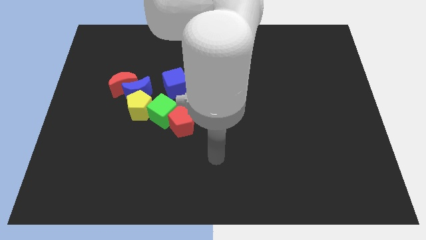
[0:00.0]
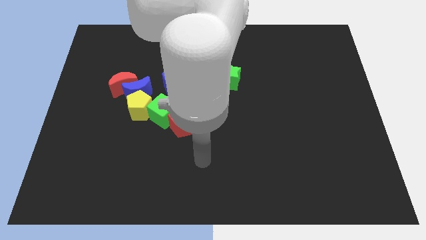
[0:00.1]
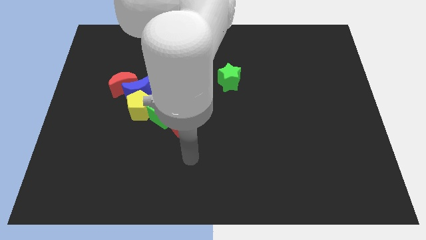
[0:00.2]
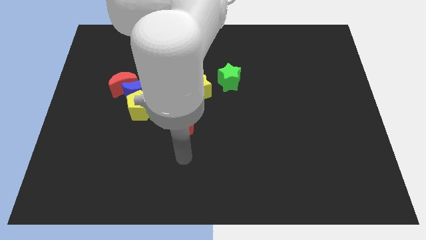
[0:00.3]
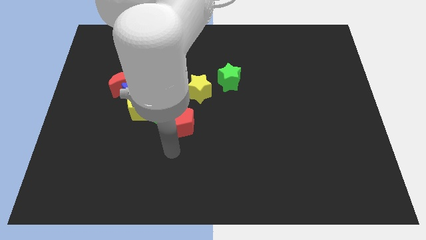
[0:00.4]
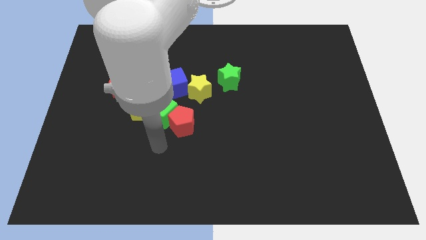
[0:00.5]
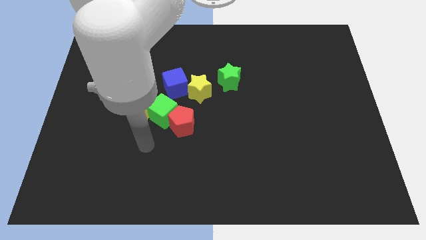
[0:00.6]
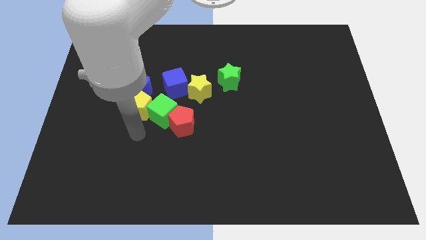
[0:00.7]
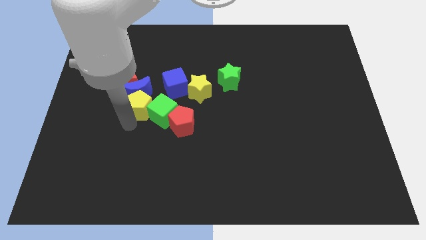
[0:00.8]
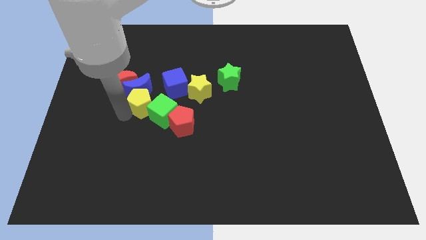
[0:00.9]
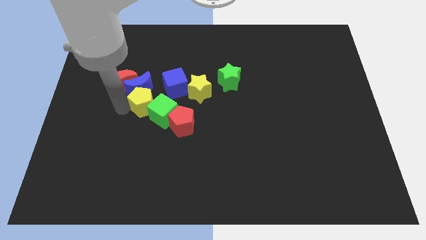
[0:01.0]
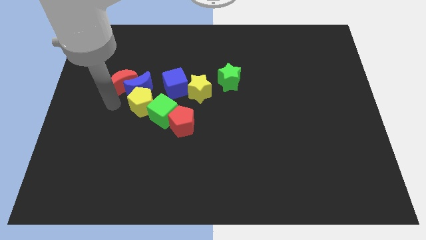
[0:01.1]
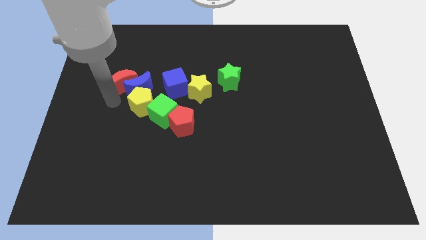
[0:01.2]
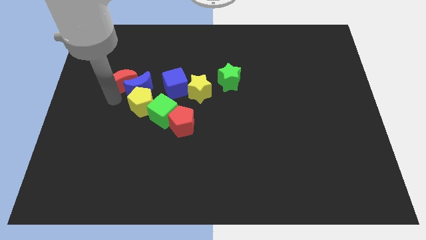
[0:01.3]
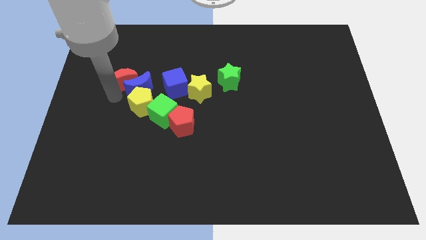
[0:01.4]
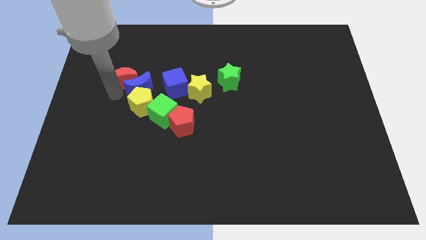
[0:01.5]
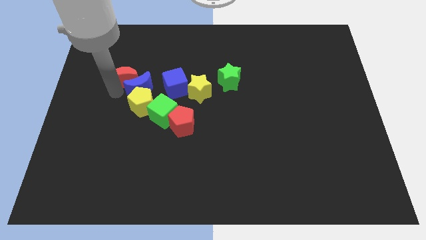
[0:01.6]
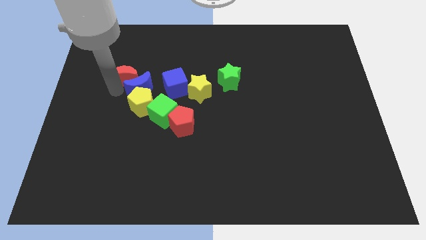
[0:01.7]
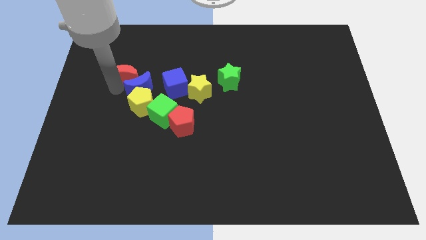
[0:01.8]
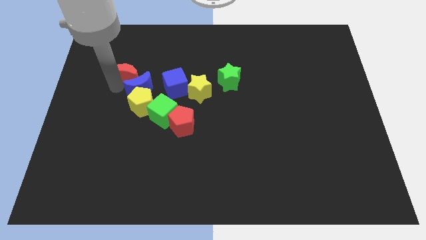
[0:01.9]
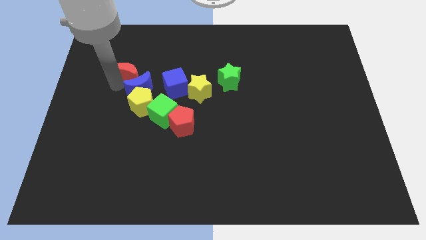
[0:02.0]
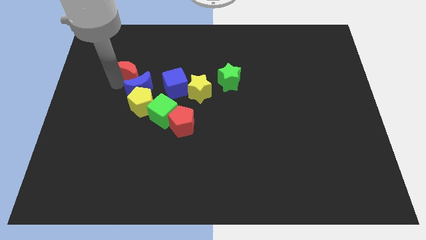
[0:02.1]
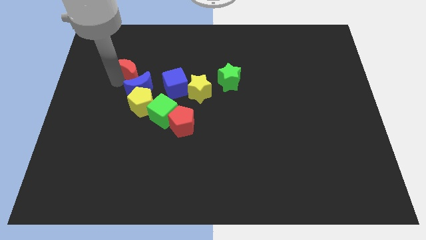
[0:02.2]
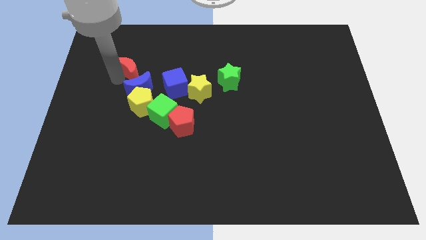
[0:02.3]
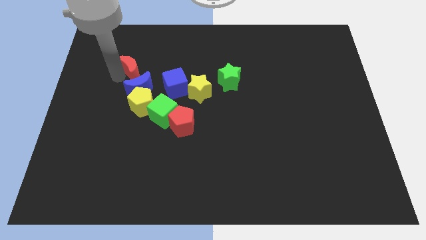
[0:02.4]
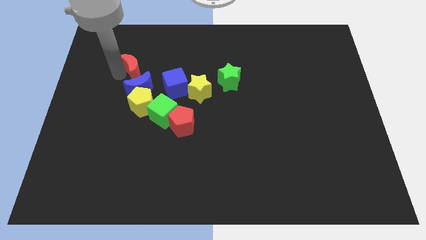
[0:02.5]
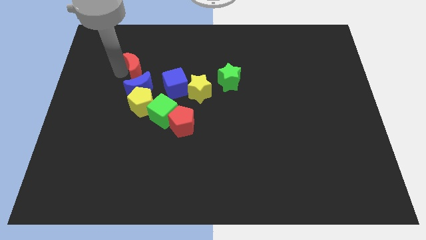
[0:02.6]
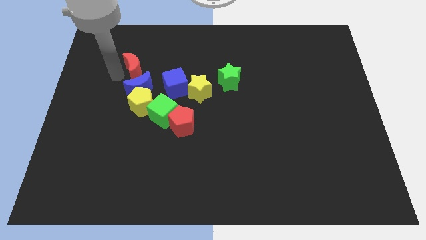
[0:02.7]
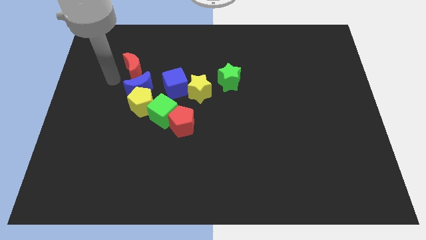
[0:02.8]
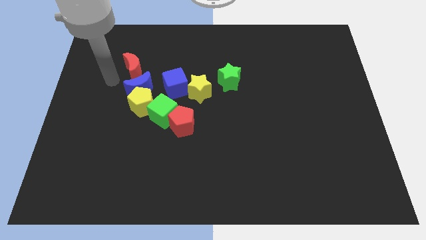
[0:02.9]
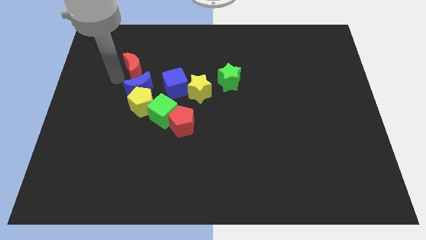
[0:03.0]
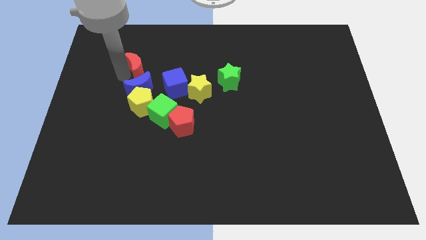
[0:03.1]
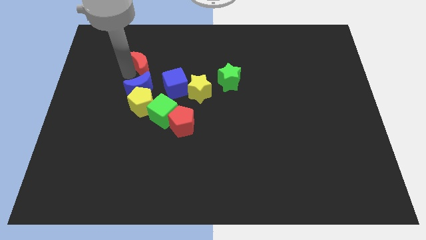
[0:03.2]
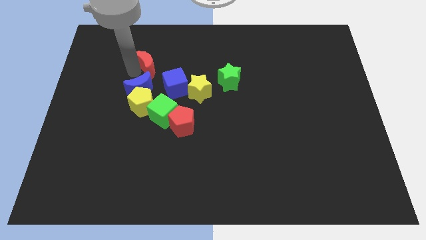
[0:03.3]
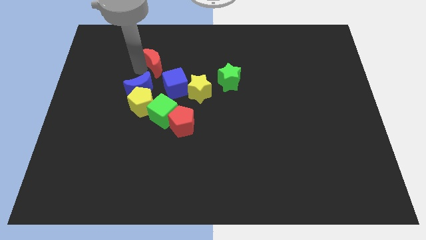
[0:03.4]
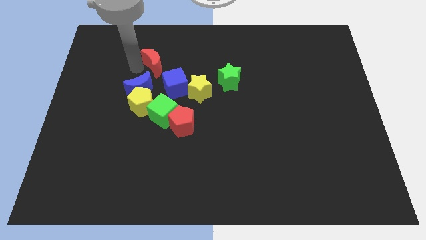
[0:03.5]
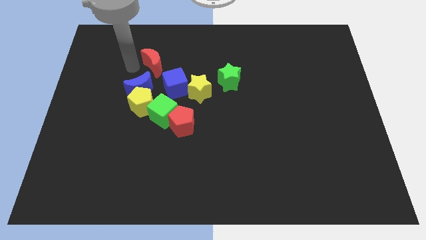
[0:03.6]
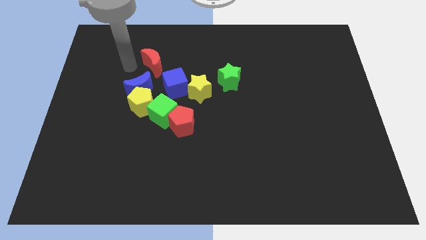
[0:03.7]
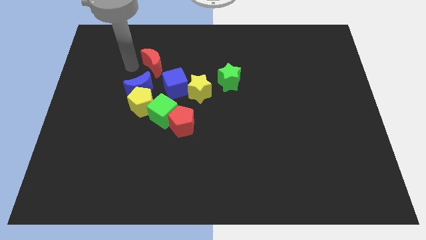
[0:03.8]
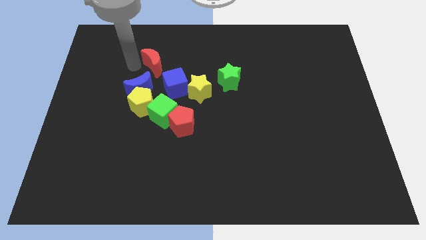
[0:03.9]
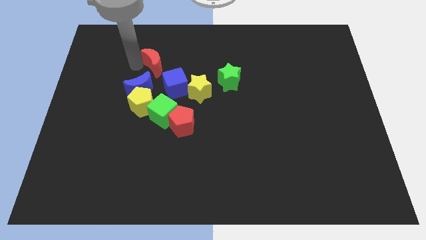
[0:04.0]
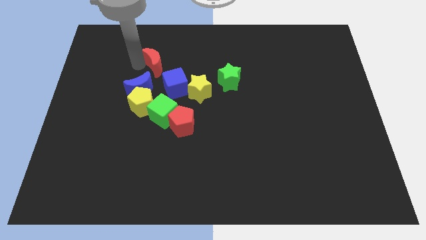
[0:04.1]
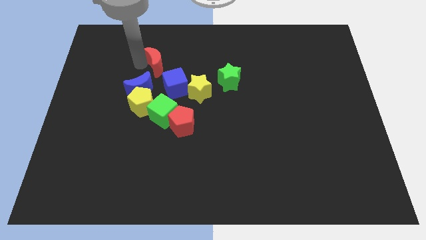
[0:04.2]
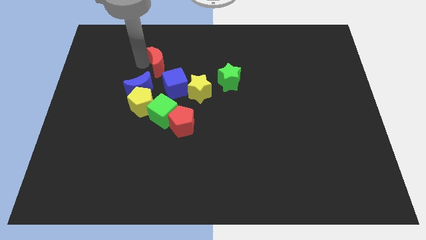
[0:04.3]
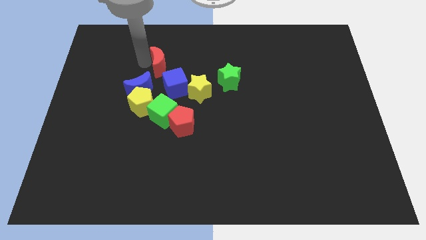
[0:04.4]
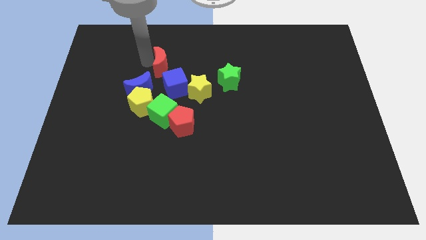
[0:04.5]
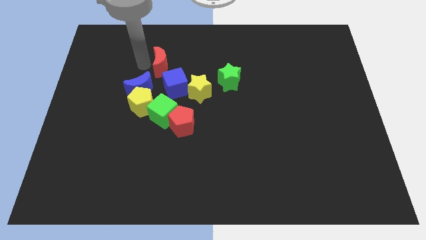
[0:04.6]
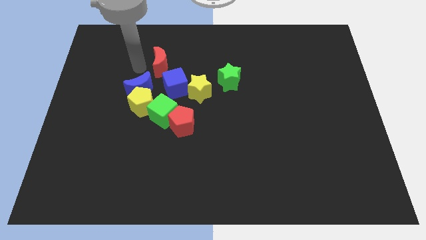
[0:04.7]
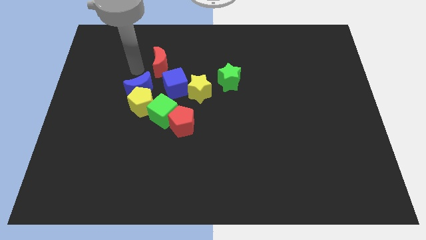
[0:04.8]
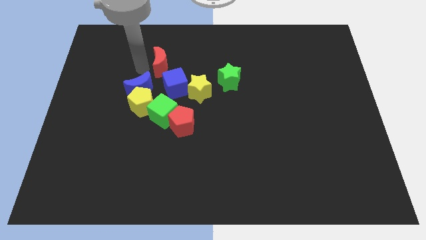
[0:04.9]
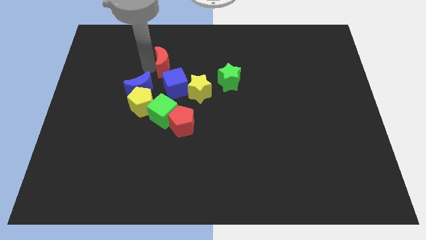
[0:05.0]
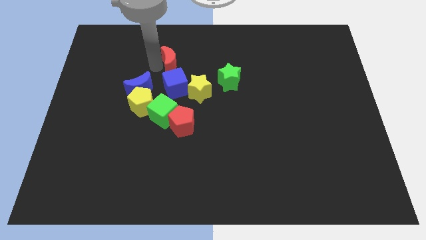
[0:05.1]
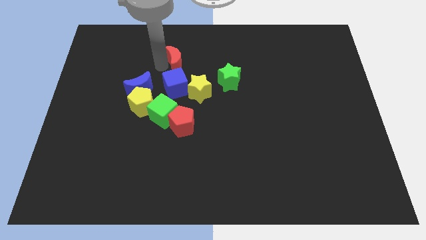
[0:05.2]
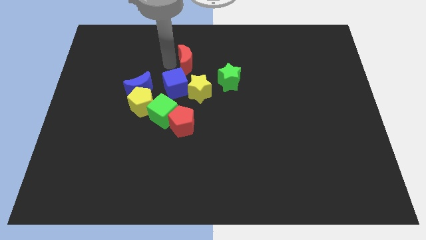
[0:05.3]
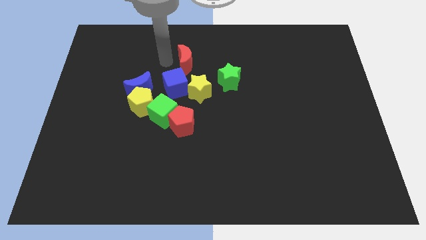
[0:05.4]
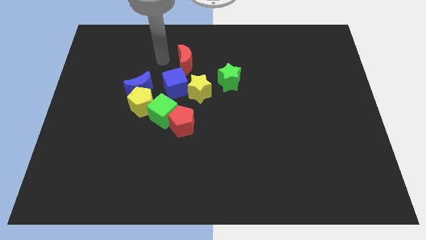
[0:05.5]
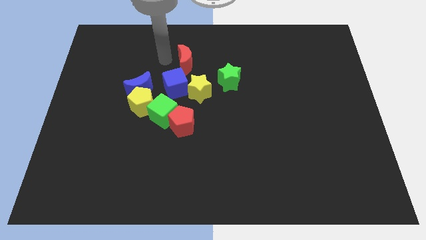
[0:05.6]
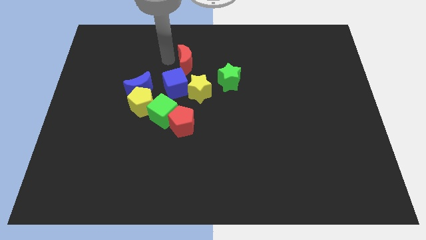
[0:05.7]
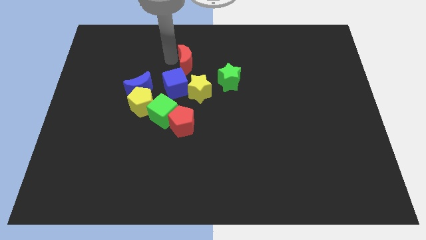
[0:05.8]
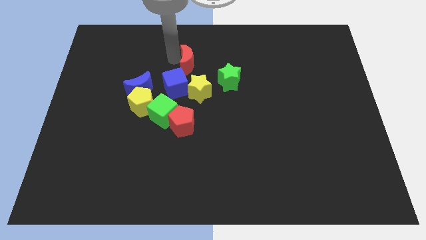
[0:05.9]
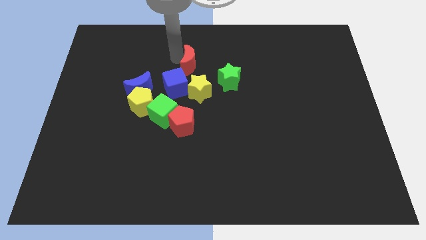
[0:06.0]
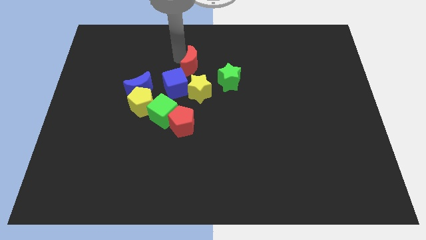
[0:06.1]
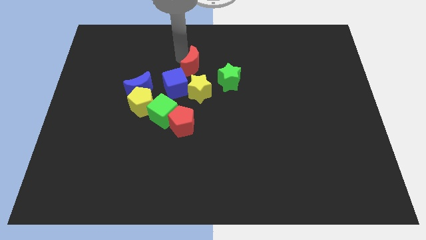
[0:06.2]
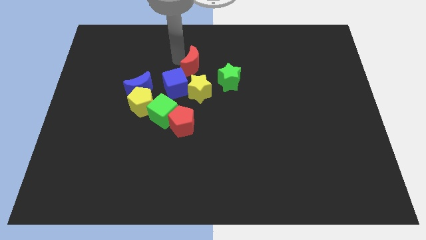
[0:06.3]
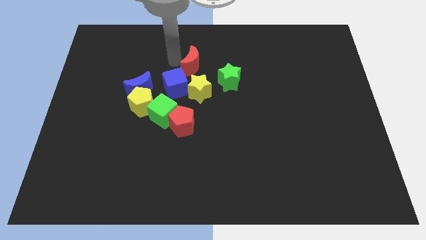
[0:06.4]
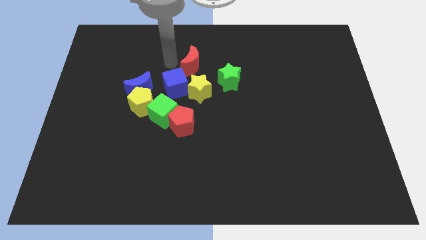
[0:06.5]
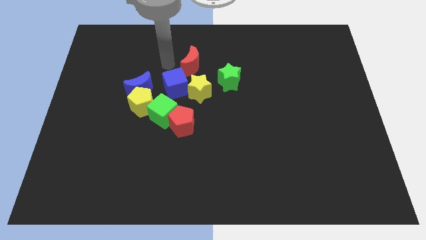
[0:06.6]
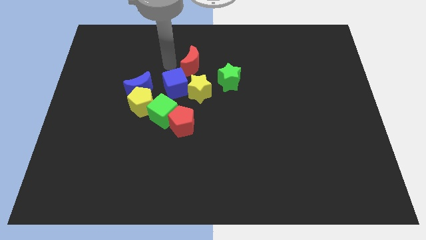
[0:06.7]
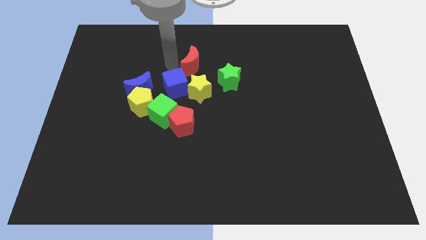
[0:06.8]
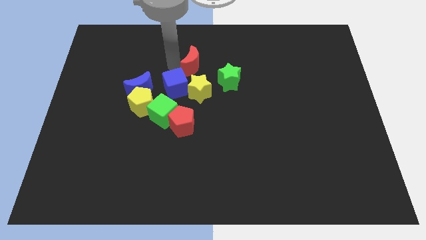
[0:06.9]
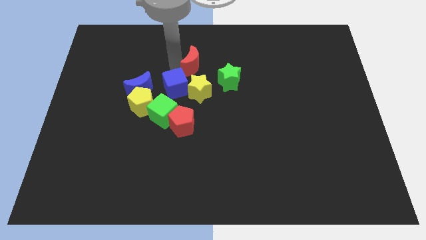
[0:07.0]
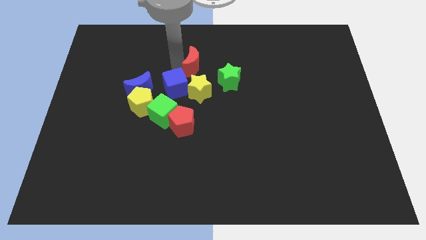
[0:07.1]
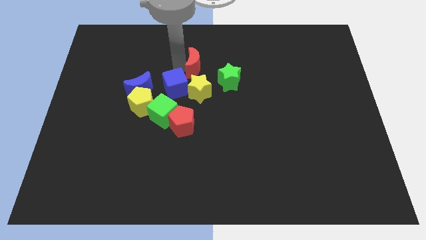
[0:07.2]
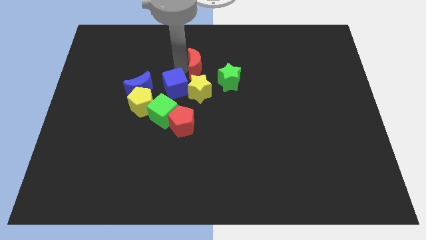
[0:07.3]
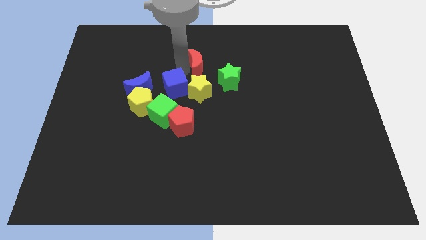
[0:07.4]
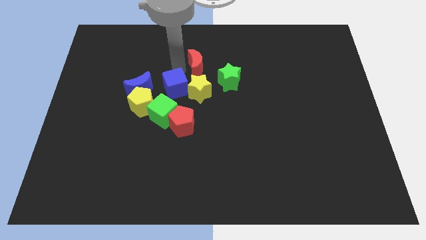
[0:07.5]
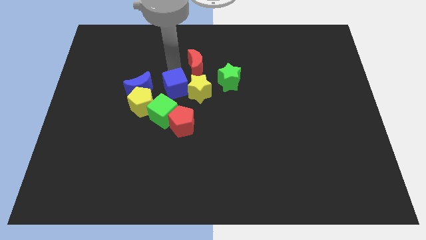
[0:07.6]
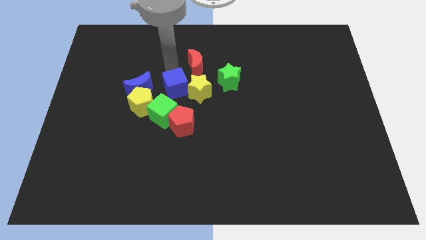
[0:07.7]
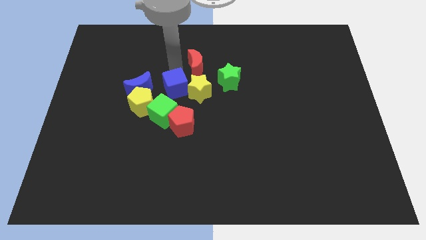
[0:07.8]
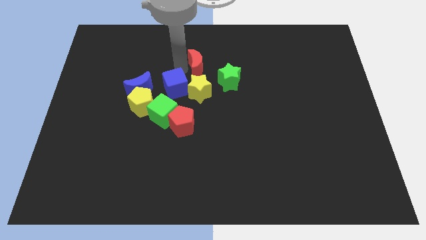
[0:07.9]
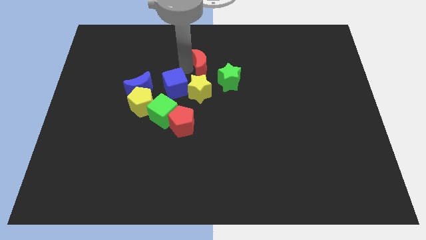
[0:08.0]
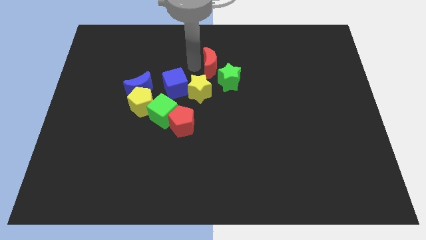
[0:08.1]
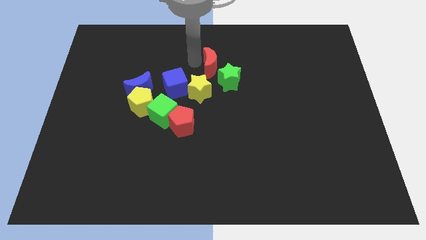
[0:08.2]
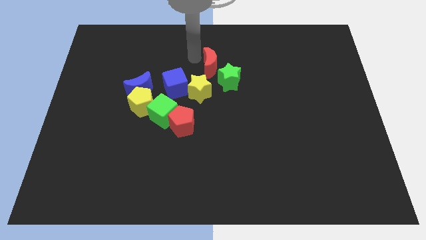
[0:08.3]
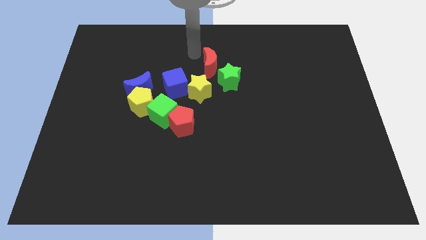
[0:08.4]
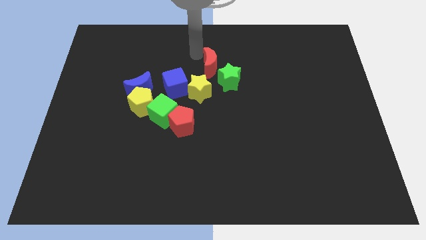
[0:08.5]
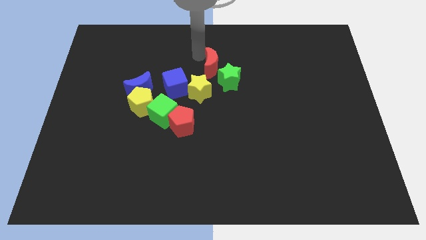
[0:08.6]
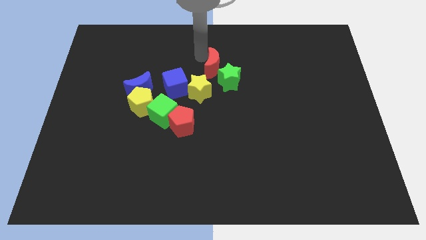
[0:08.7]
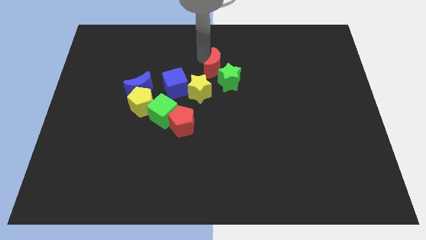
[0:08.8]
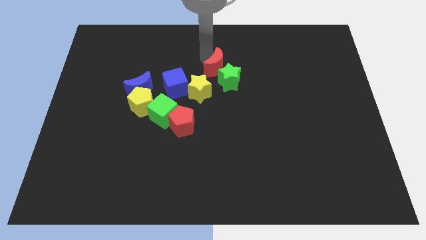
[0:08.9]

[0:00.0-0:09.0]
slide the red moon towards the green star
